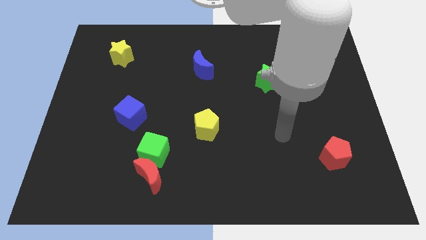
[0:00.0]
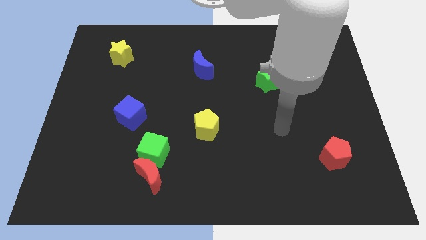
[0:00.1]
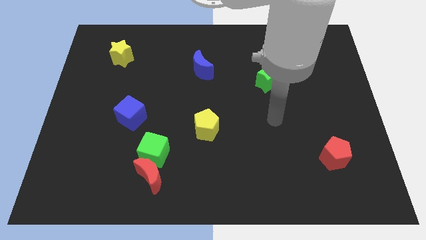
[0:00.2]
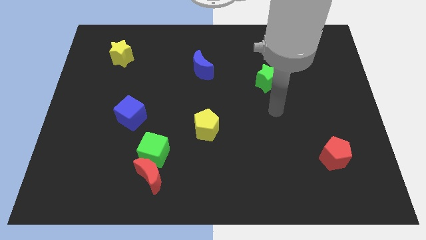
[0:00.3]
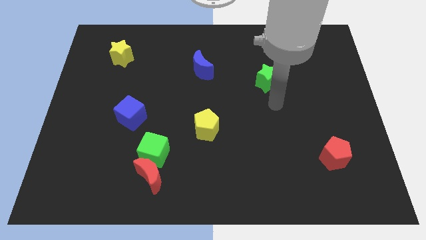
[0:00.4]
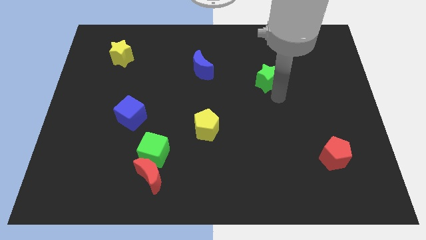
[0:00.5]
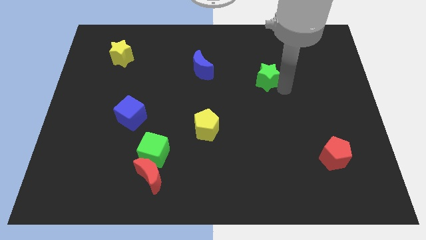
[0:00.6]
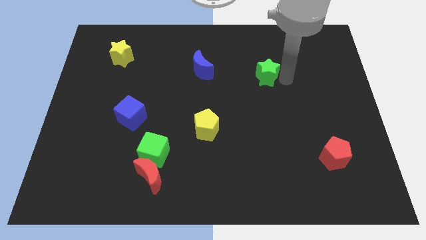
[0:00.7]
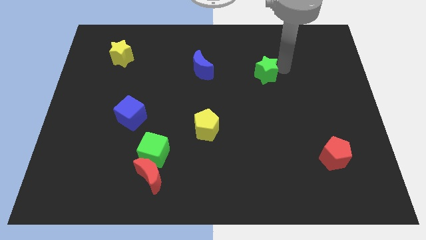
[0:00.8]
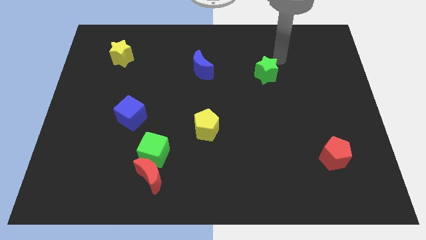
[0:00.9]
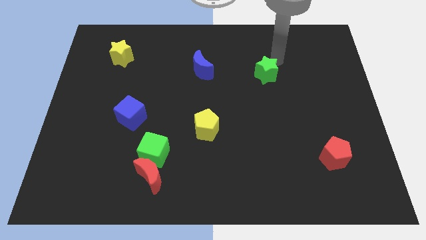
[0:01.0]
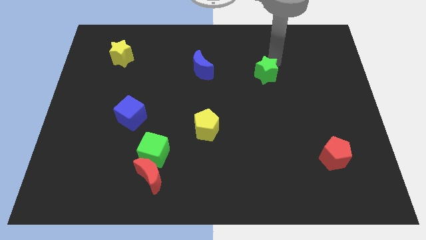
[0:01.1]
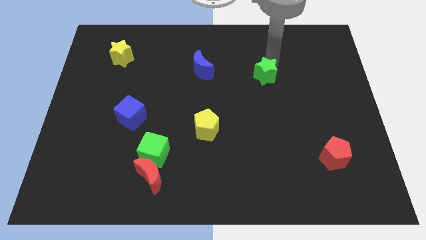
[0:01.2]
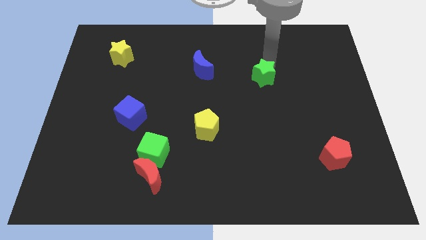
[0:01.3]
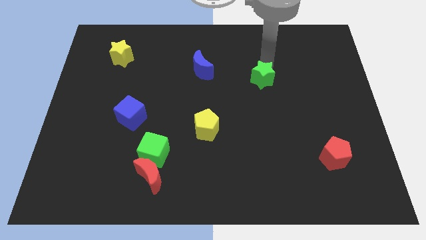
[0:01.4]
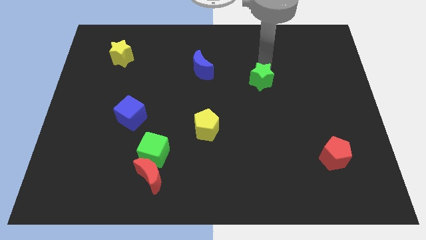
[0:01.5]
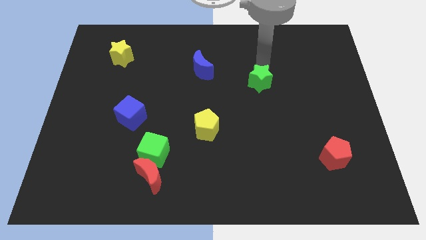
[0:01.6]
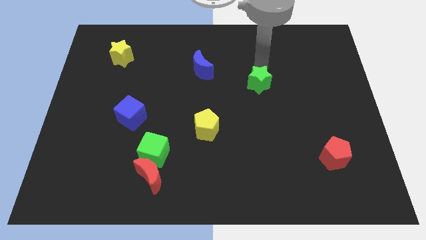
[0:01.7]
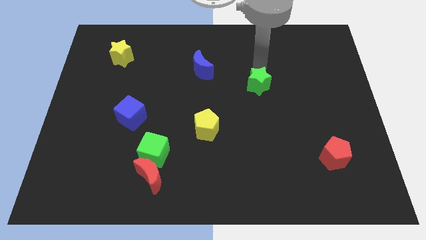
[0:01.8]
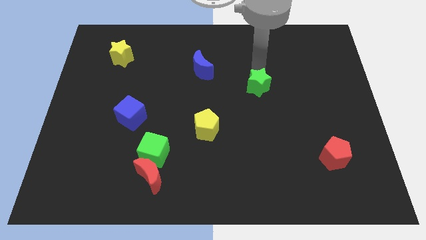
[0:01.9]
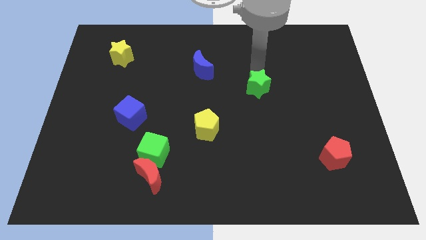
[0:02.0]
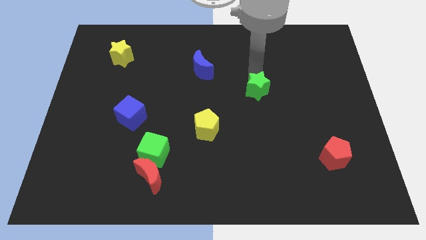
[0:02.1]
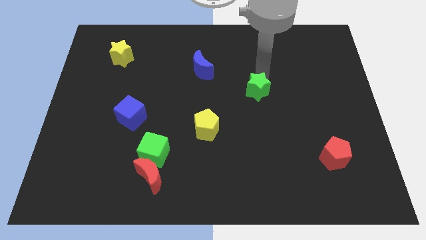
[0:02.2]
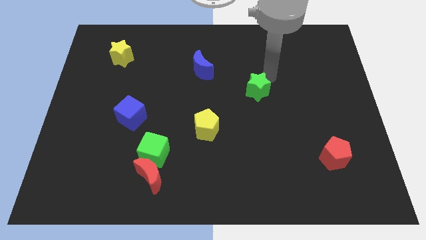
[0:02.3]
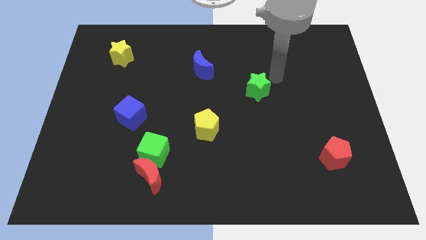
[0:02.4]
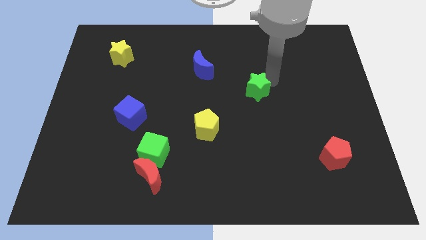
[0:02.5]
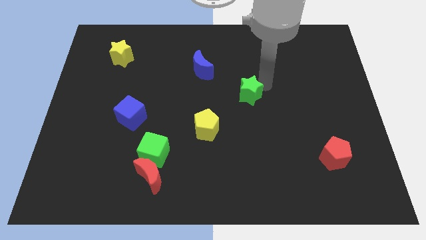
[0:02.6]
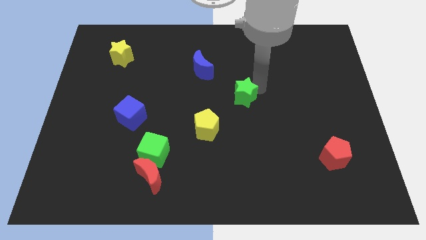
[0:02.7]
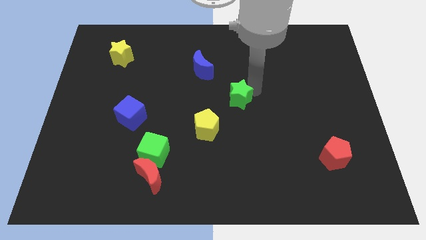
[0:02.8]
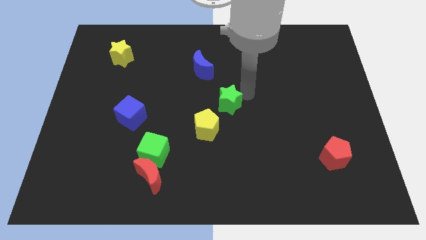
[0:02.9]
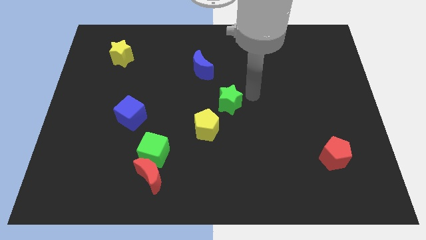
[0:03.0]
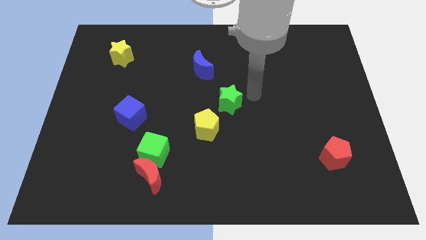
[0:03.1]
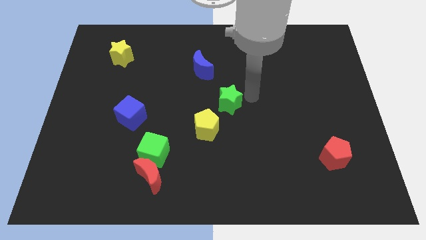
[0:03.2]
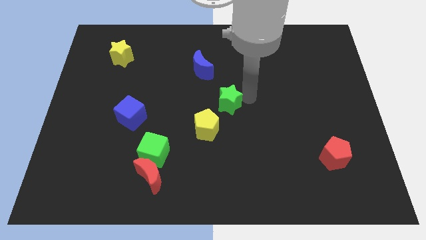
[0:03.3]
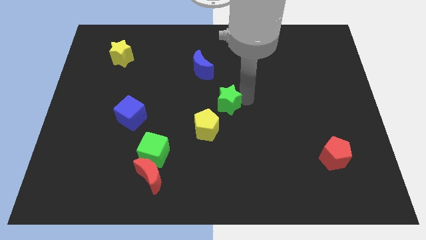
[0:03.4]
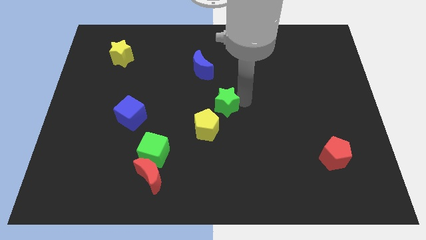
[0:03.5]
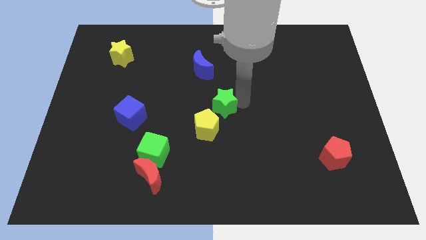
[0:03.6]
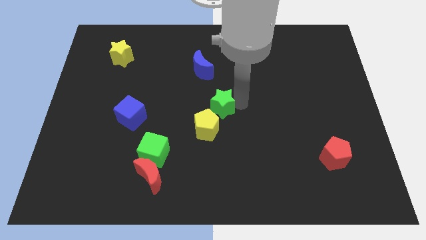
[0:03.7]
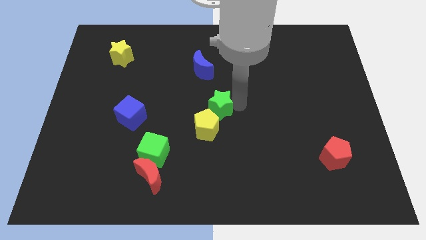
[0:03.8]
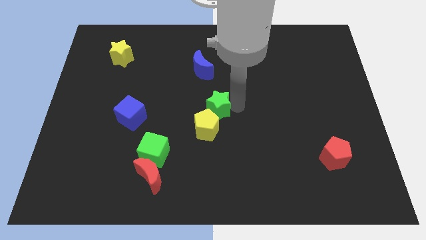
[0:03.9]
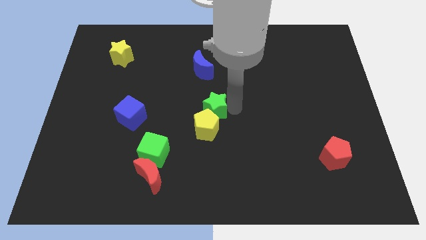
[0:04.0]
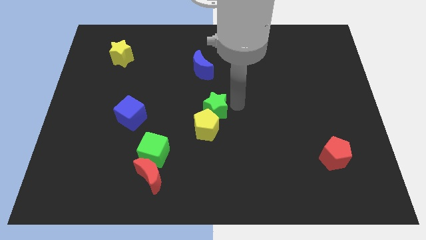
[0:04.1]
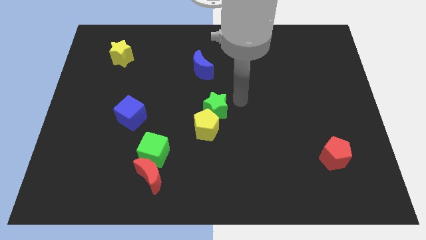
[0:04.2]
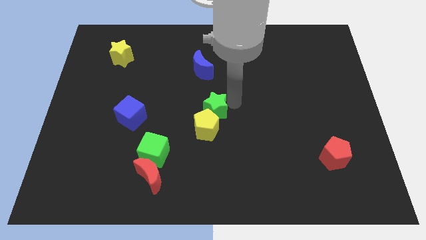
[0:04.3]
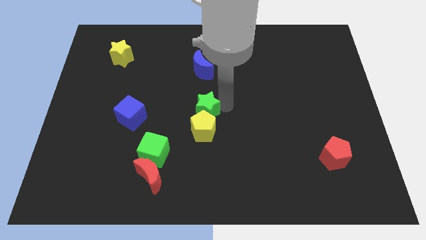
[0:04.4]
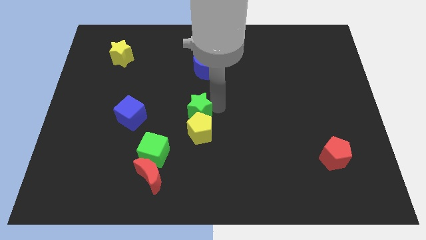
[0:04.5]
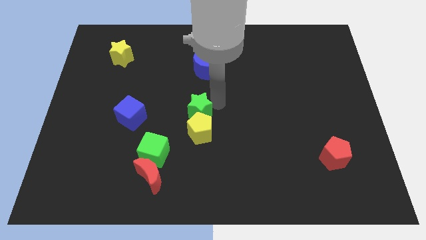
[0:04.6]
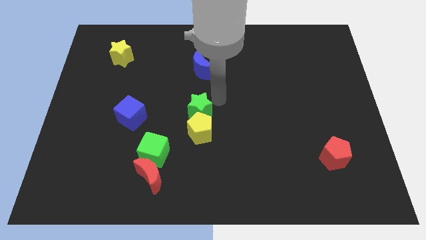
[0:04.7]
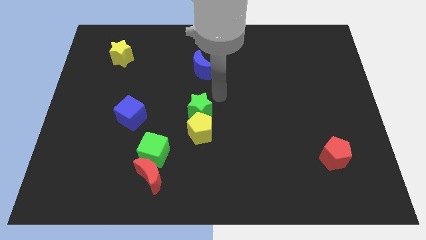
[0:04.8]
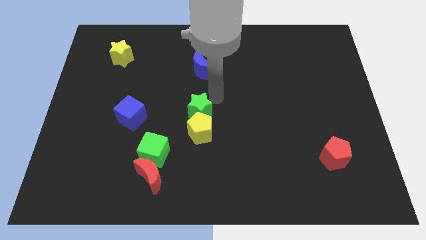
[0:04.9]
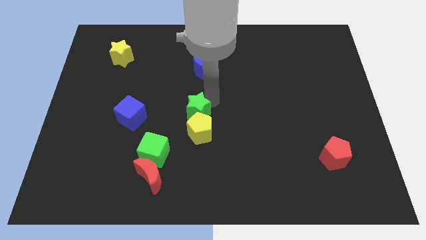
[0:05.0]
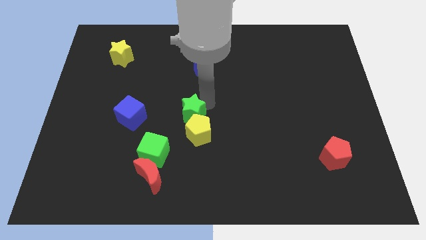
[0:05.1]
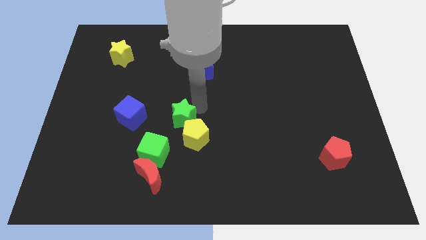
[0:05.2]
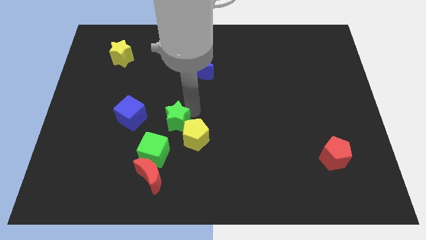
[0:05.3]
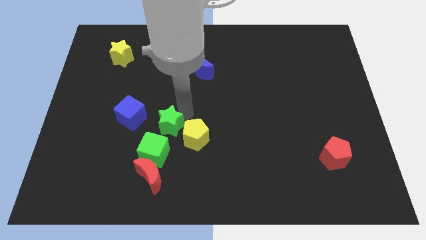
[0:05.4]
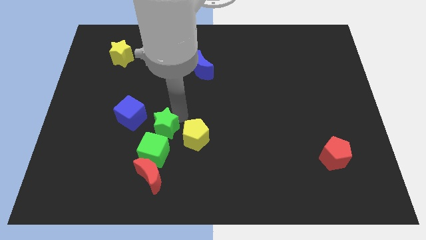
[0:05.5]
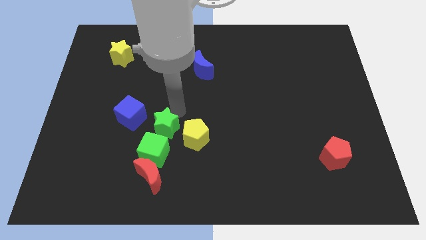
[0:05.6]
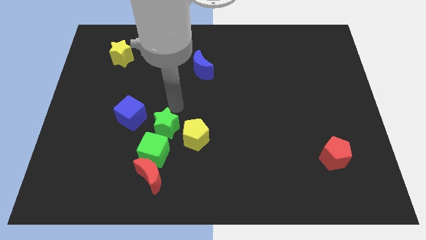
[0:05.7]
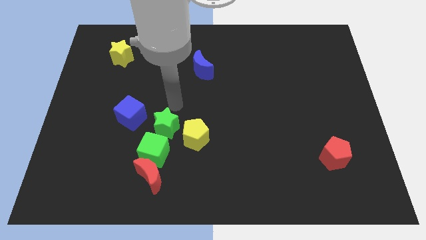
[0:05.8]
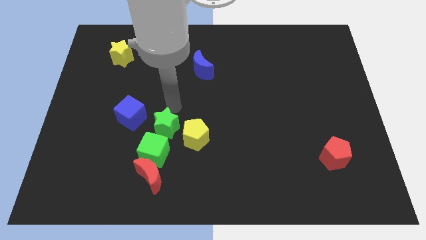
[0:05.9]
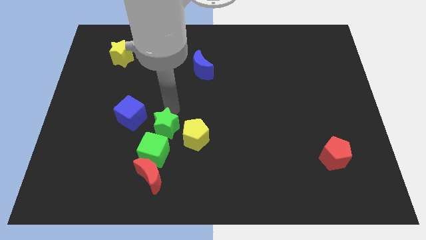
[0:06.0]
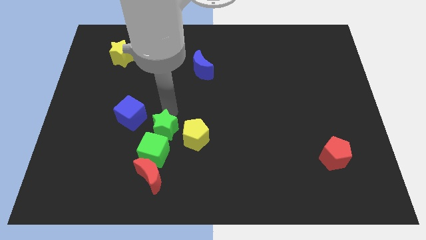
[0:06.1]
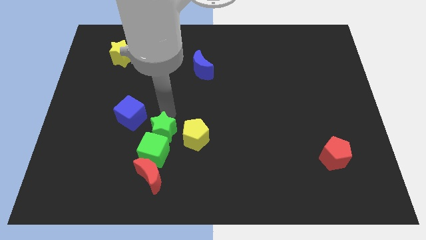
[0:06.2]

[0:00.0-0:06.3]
push the green star towards the green cube
